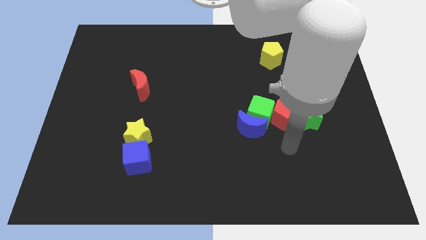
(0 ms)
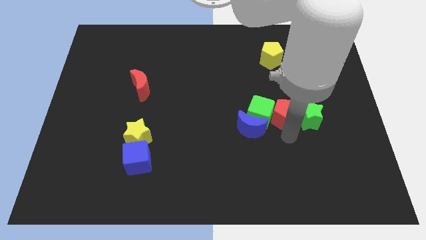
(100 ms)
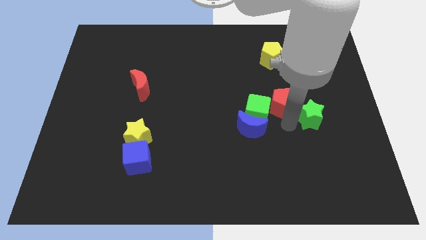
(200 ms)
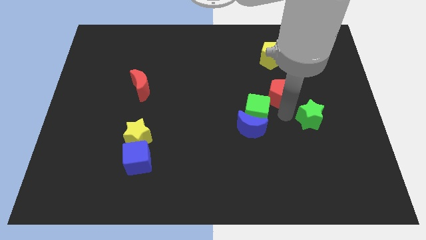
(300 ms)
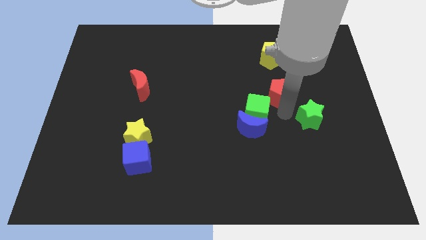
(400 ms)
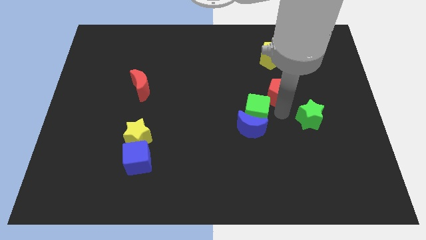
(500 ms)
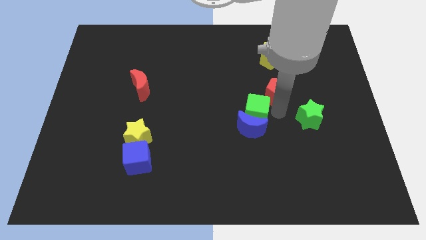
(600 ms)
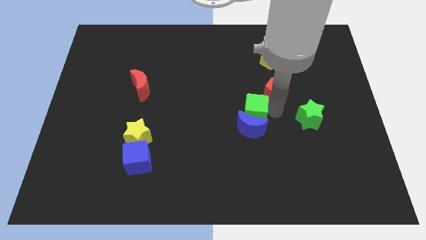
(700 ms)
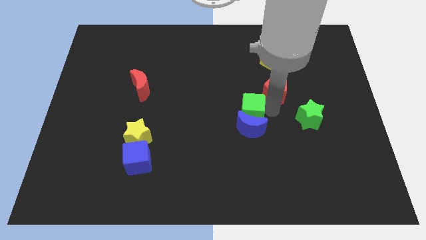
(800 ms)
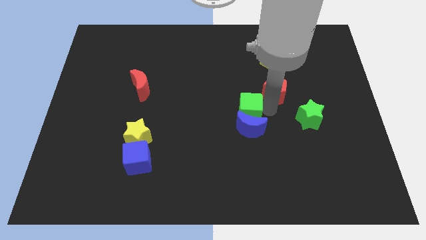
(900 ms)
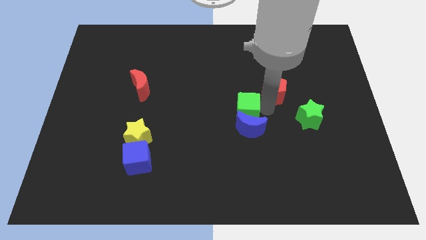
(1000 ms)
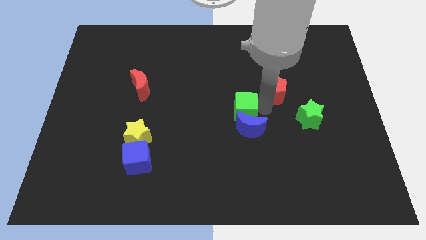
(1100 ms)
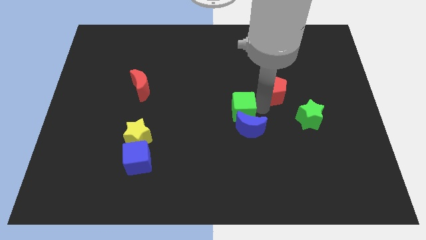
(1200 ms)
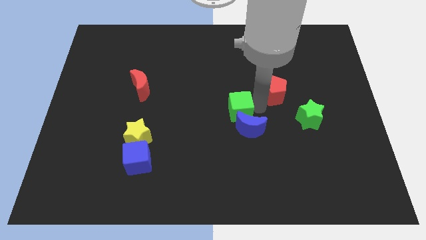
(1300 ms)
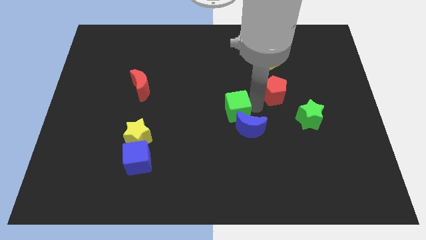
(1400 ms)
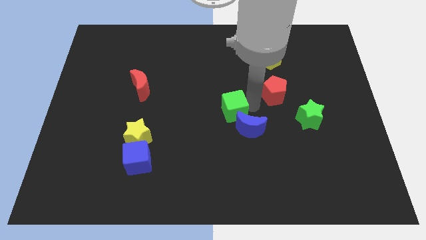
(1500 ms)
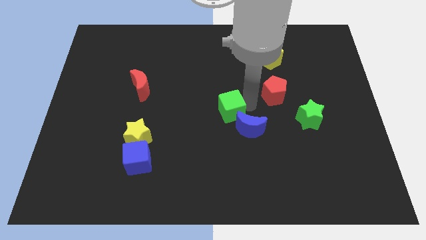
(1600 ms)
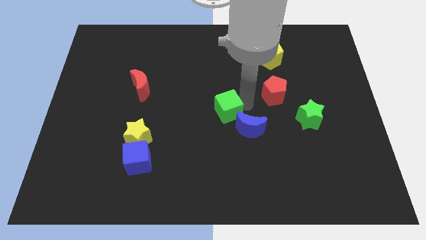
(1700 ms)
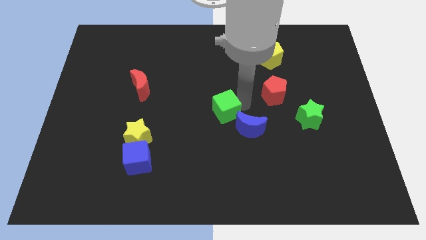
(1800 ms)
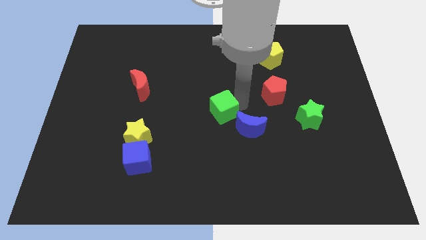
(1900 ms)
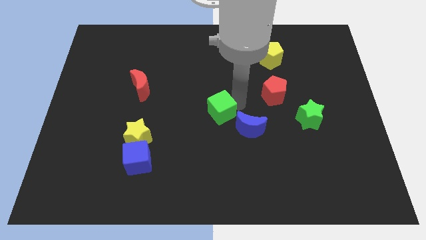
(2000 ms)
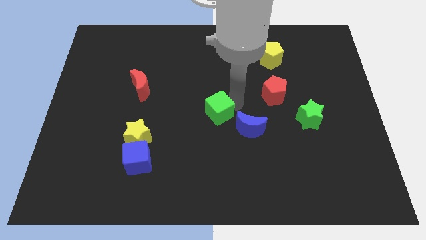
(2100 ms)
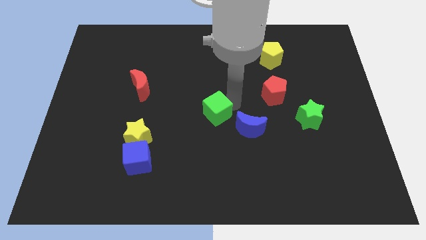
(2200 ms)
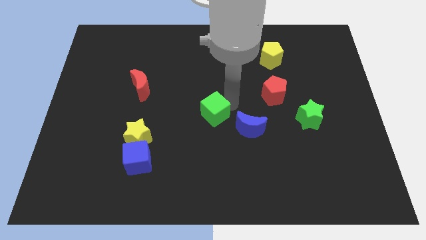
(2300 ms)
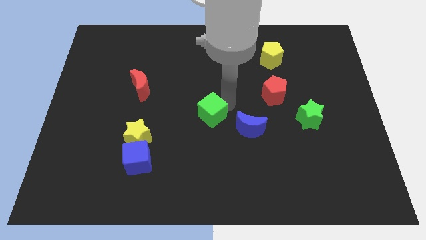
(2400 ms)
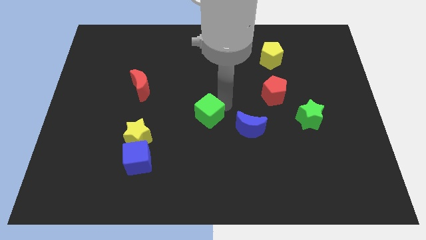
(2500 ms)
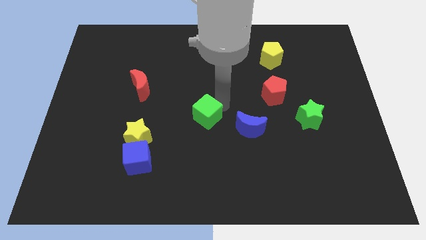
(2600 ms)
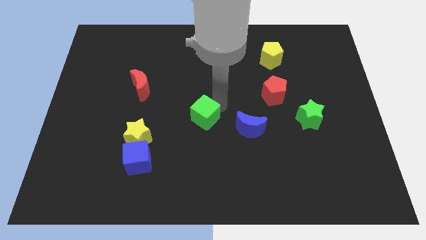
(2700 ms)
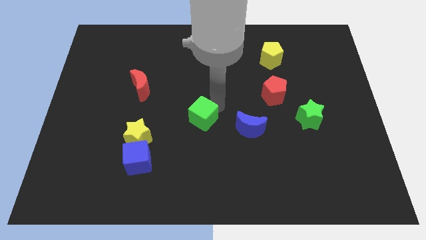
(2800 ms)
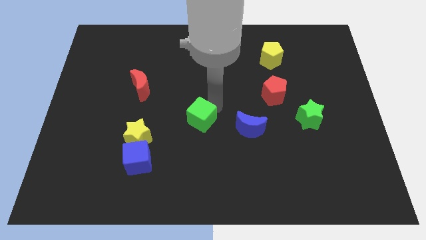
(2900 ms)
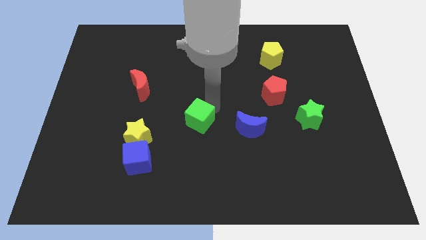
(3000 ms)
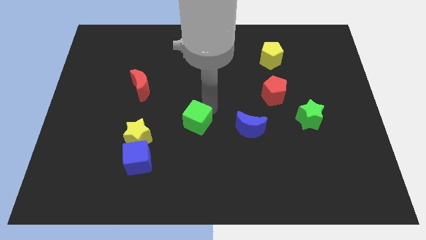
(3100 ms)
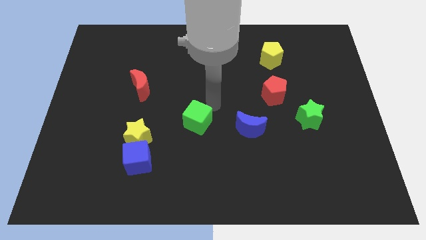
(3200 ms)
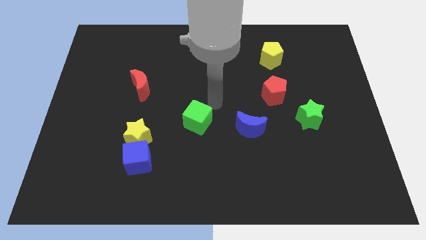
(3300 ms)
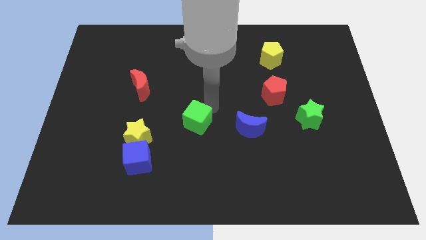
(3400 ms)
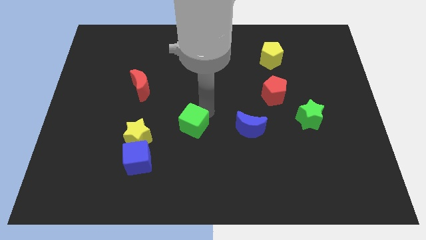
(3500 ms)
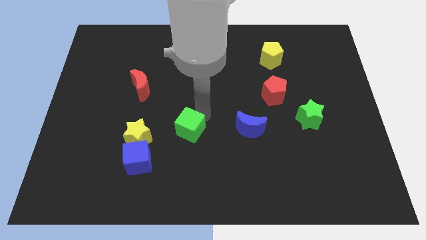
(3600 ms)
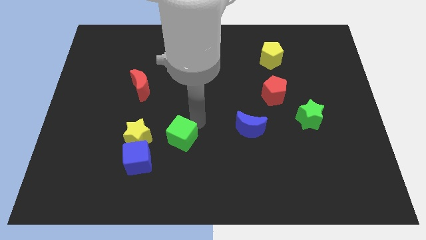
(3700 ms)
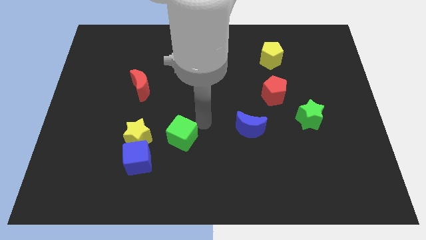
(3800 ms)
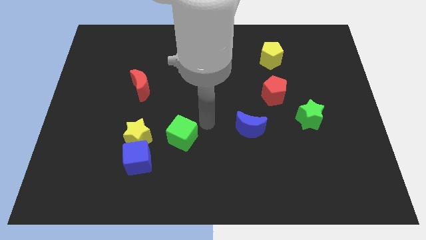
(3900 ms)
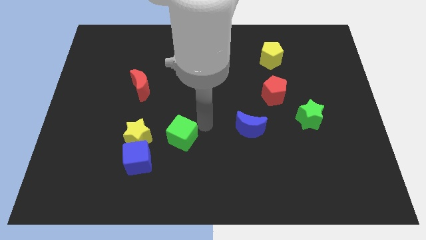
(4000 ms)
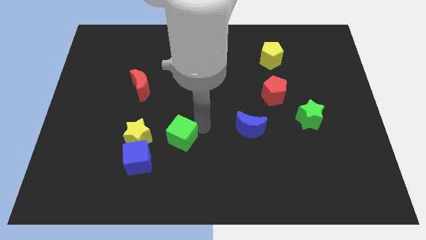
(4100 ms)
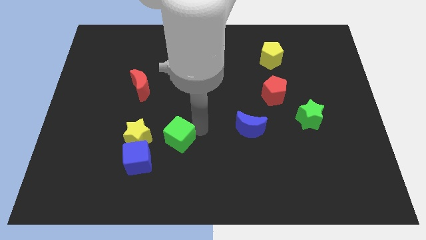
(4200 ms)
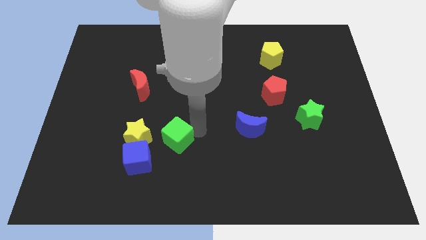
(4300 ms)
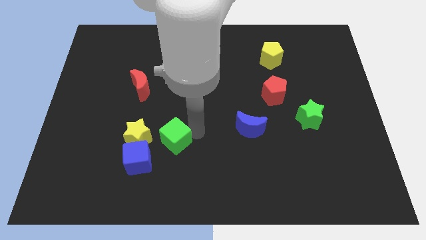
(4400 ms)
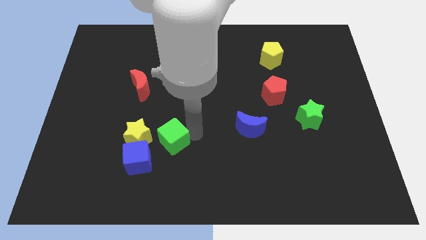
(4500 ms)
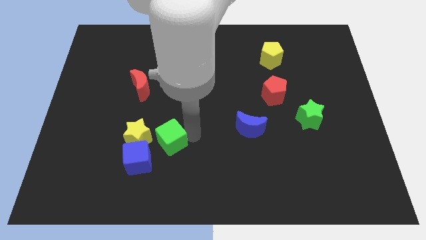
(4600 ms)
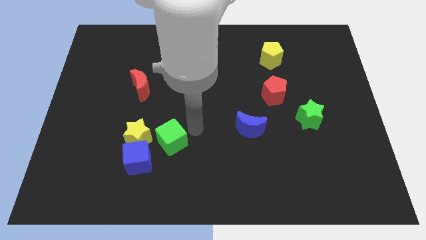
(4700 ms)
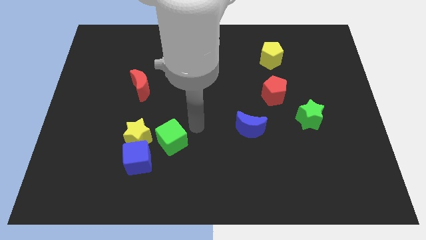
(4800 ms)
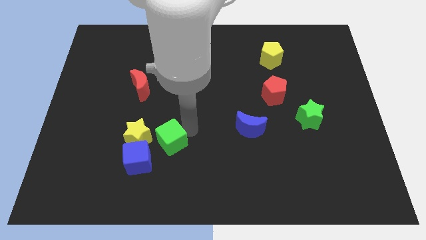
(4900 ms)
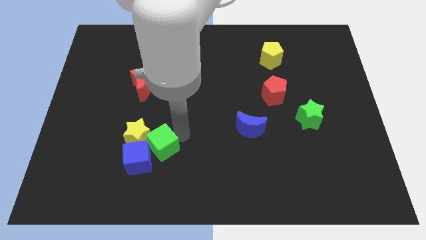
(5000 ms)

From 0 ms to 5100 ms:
put the green cube to the blue cube

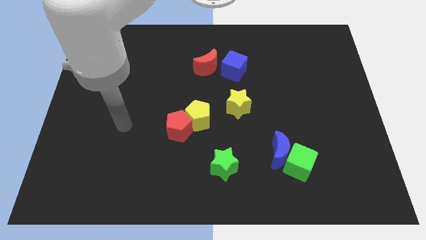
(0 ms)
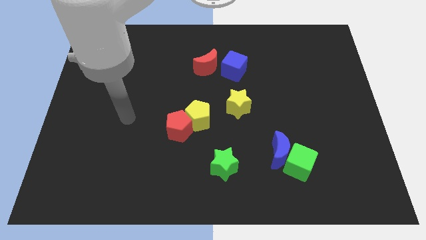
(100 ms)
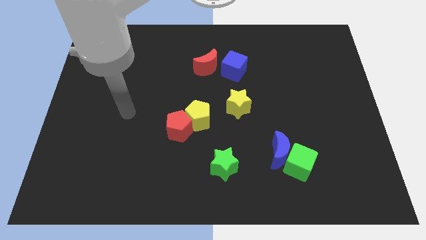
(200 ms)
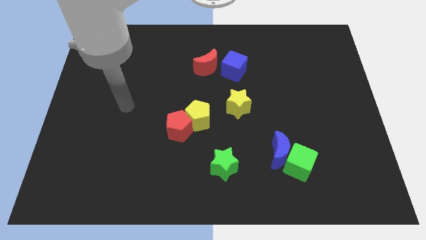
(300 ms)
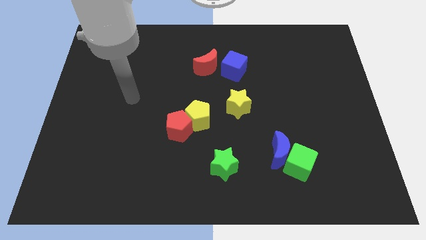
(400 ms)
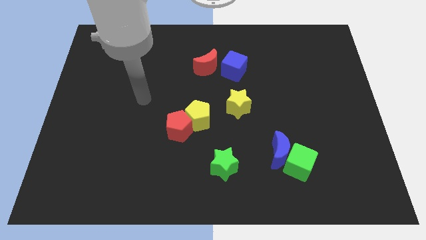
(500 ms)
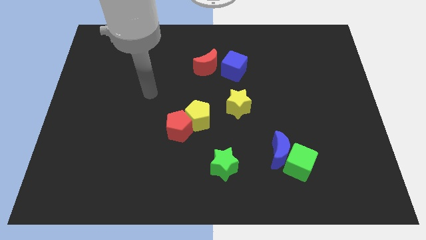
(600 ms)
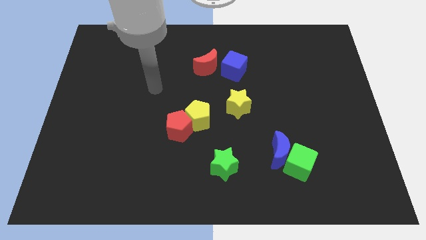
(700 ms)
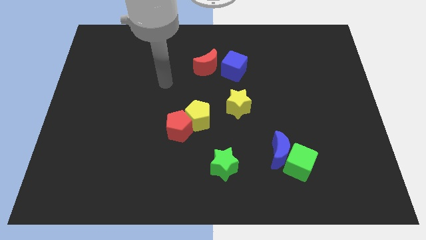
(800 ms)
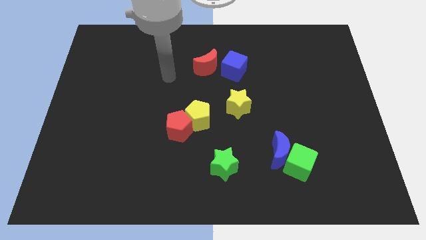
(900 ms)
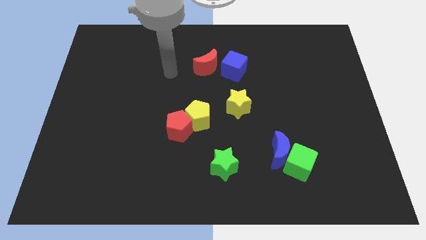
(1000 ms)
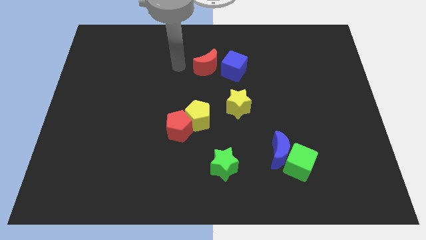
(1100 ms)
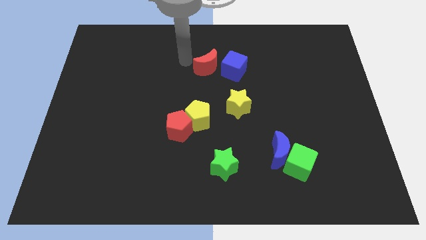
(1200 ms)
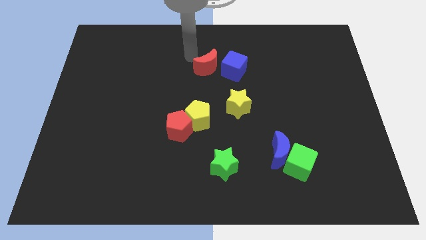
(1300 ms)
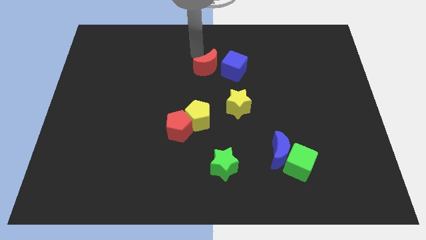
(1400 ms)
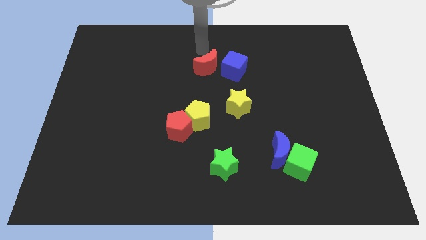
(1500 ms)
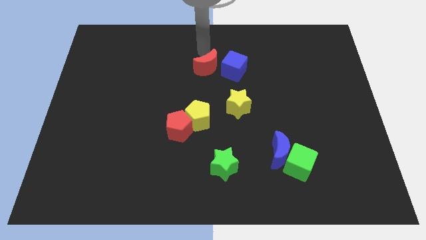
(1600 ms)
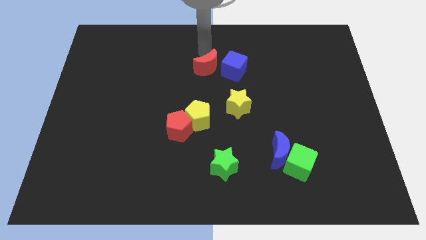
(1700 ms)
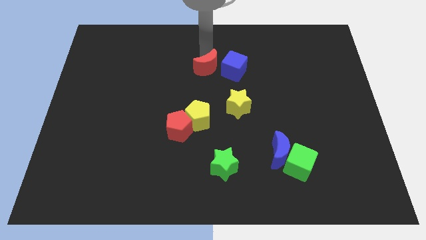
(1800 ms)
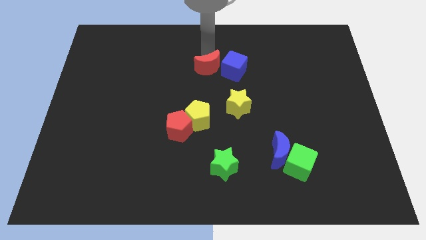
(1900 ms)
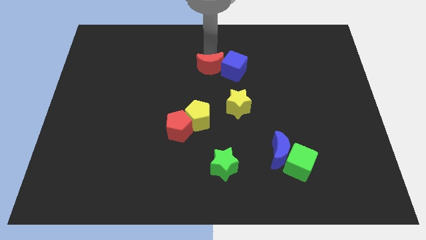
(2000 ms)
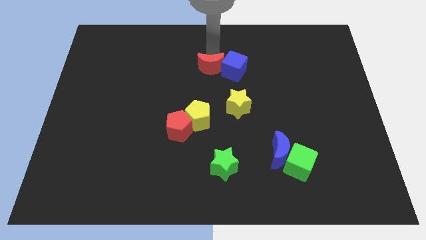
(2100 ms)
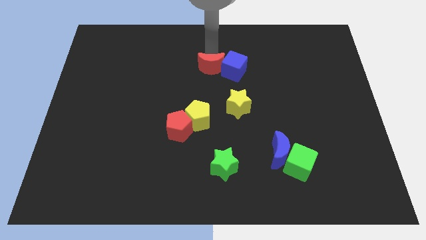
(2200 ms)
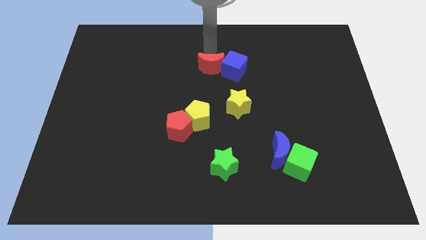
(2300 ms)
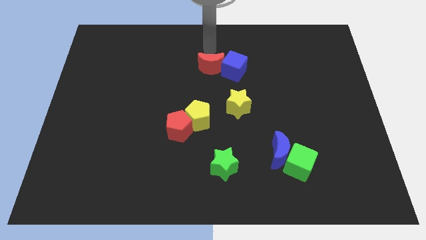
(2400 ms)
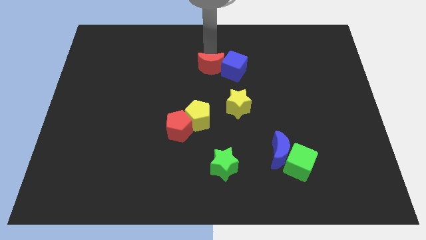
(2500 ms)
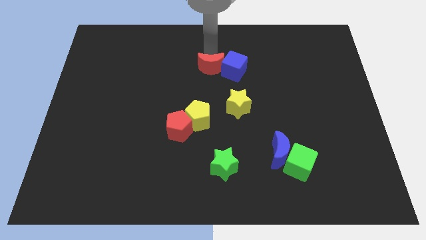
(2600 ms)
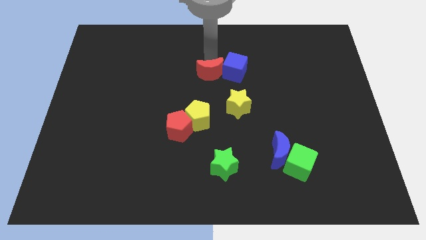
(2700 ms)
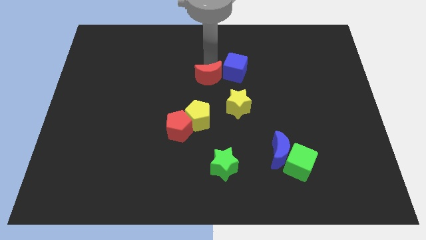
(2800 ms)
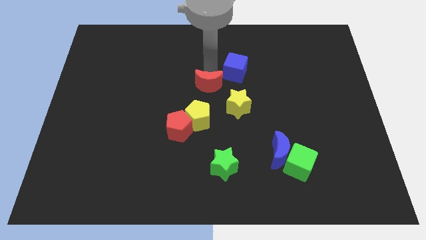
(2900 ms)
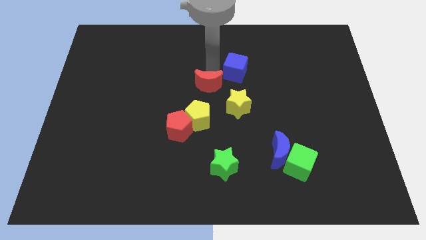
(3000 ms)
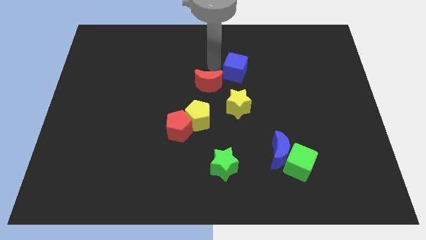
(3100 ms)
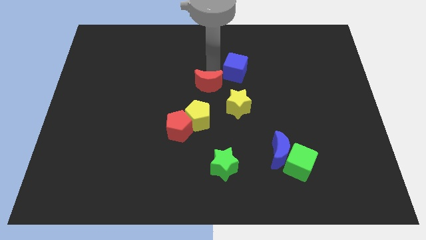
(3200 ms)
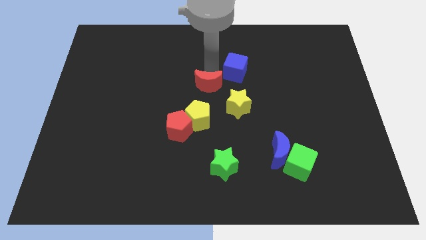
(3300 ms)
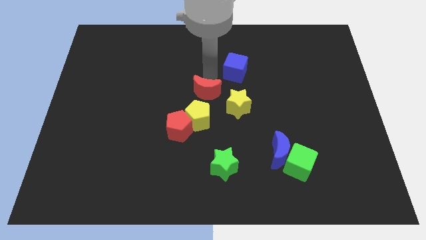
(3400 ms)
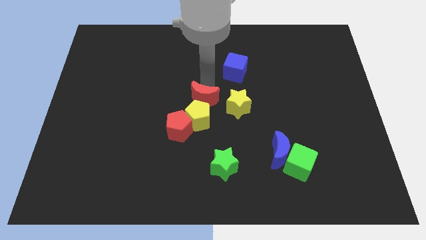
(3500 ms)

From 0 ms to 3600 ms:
move the red moon next to the yellow pentagon
